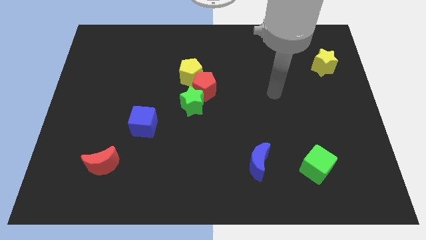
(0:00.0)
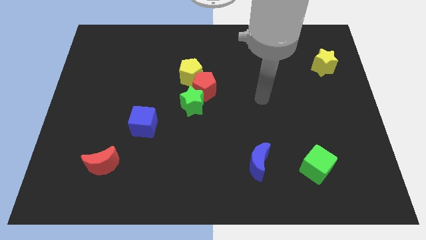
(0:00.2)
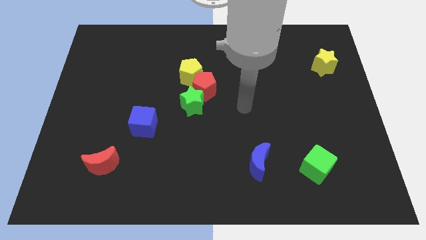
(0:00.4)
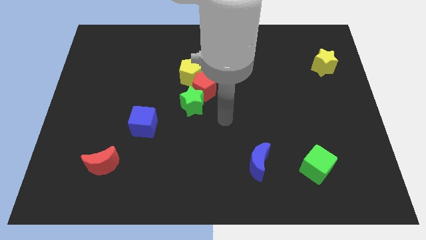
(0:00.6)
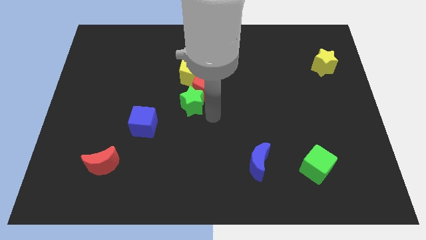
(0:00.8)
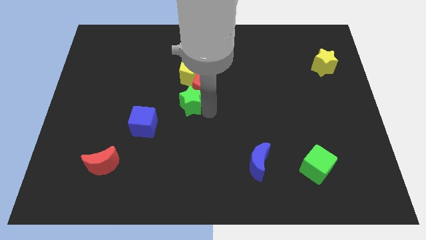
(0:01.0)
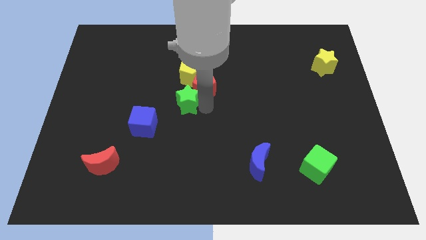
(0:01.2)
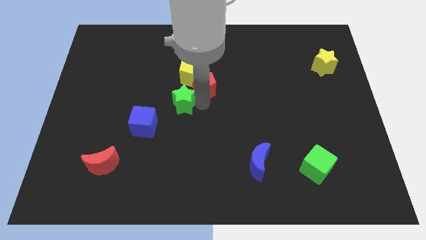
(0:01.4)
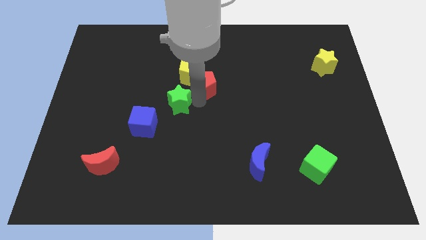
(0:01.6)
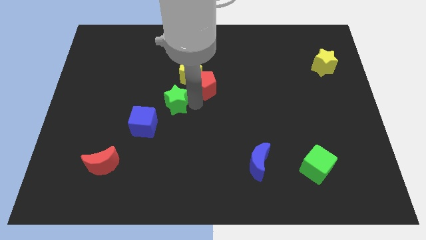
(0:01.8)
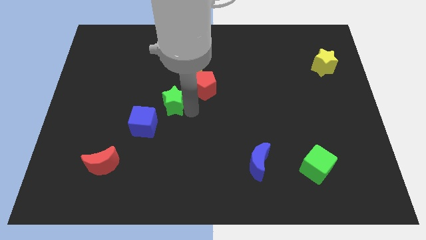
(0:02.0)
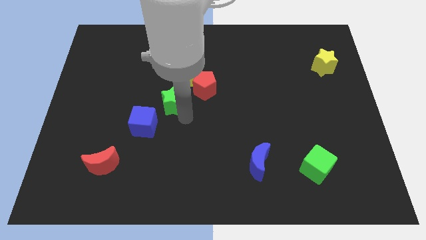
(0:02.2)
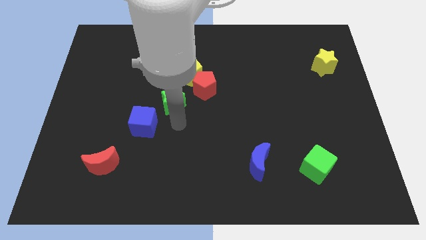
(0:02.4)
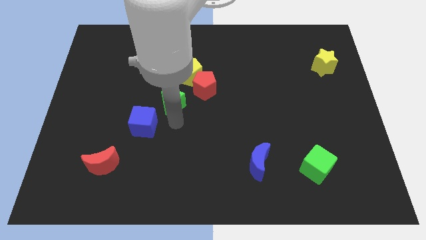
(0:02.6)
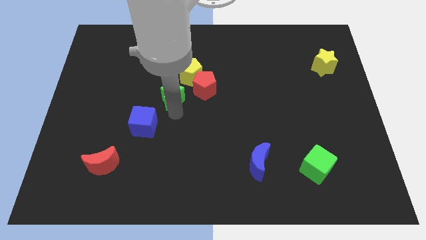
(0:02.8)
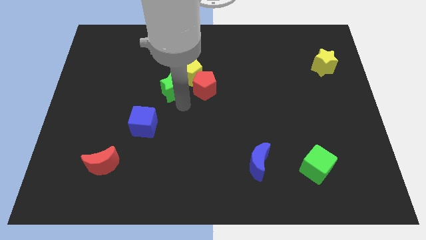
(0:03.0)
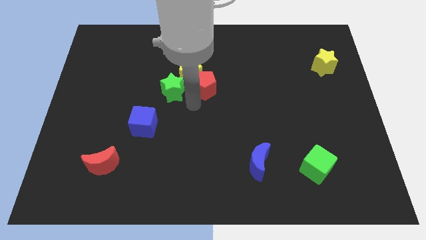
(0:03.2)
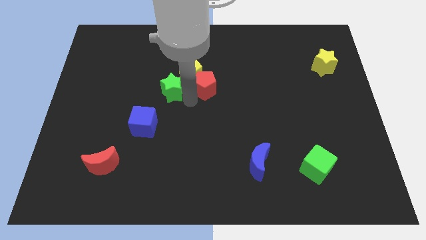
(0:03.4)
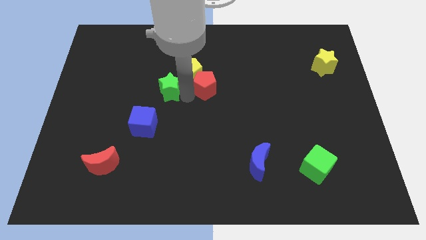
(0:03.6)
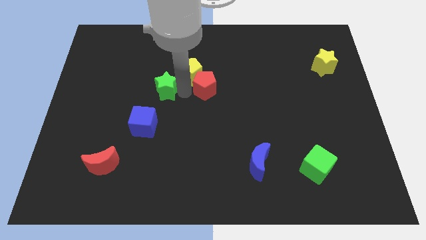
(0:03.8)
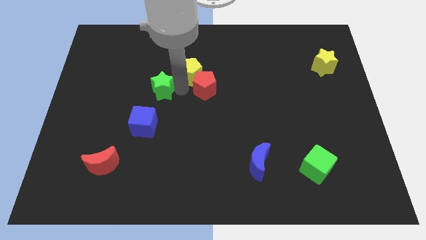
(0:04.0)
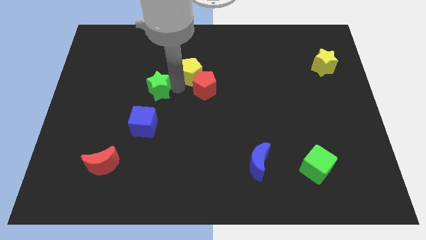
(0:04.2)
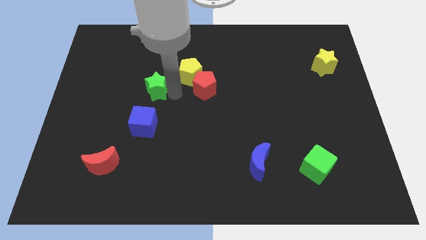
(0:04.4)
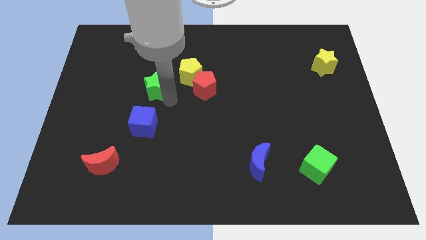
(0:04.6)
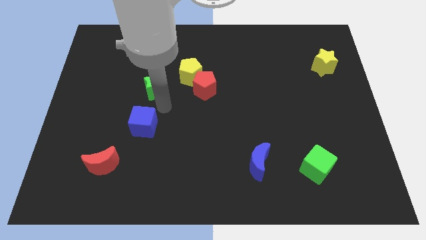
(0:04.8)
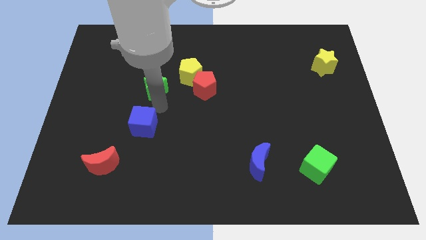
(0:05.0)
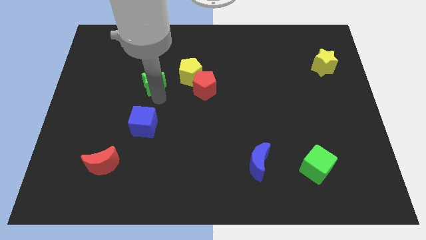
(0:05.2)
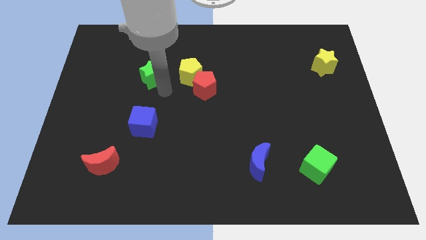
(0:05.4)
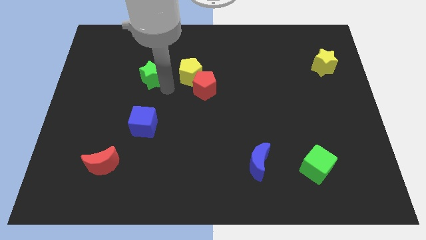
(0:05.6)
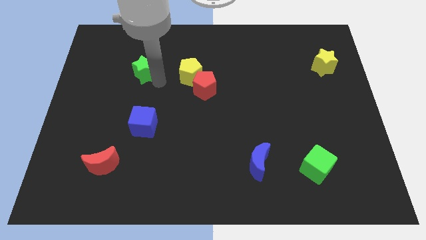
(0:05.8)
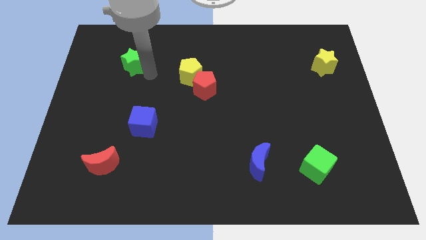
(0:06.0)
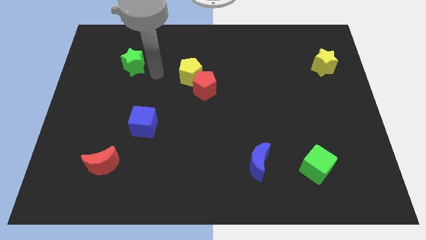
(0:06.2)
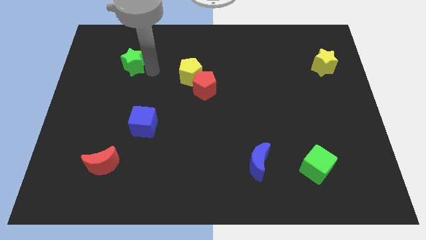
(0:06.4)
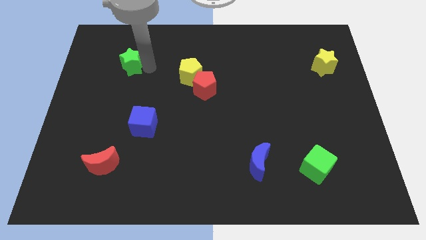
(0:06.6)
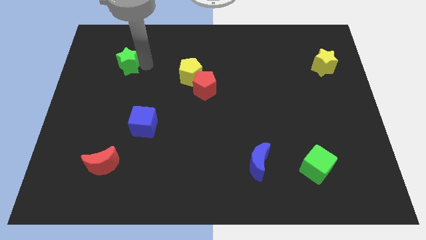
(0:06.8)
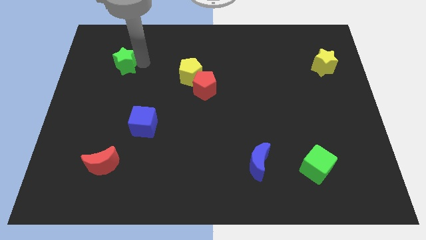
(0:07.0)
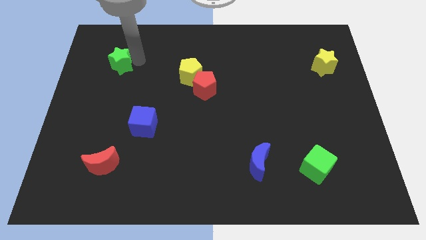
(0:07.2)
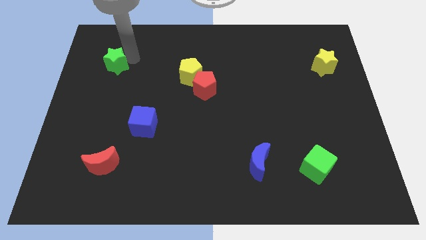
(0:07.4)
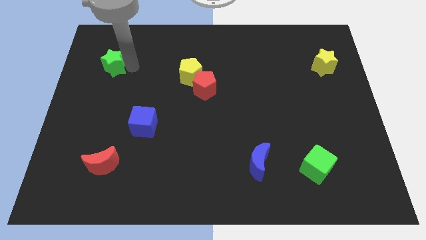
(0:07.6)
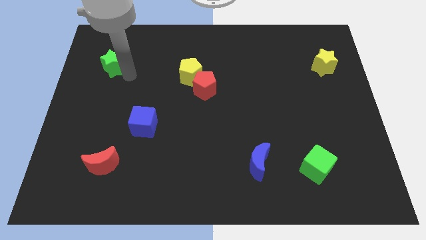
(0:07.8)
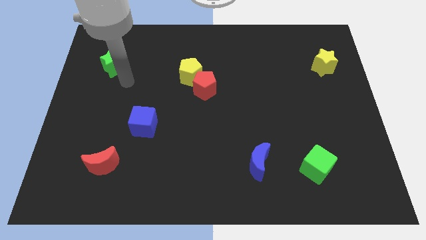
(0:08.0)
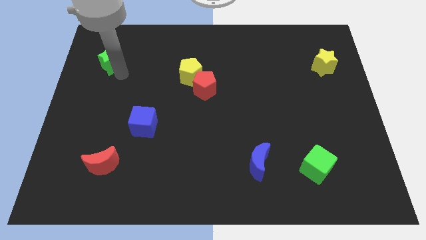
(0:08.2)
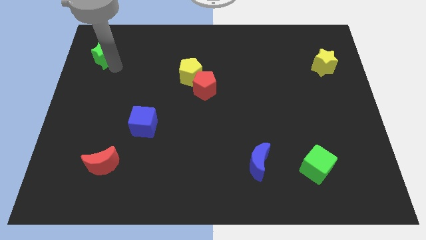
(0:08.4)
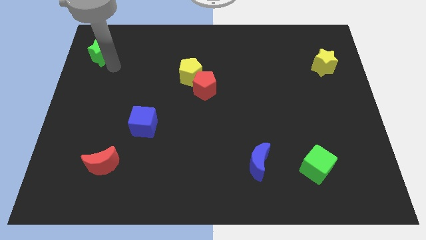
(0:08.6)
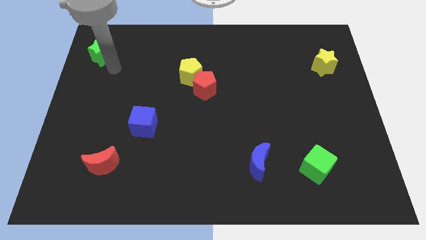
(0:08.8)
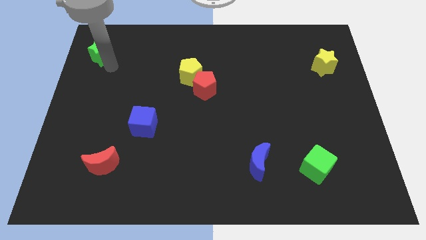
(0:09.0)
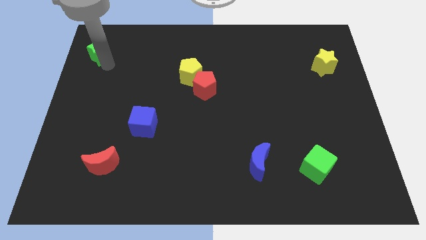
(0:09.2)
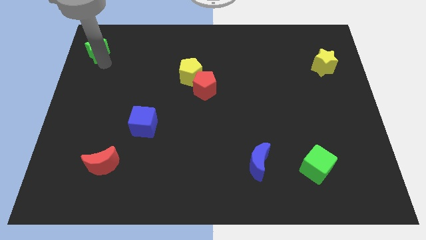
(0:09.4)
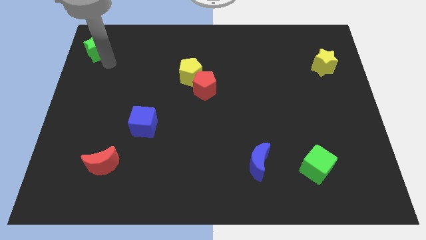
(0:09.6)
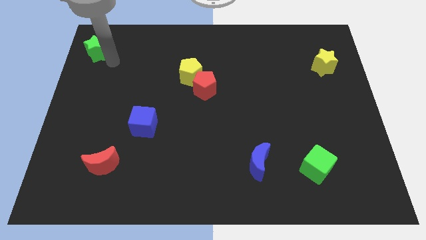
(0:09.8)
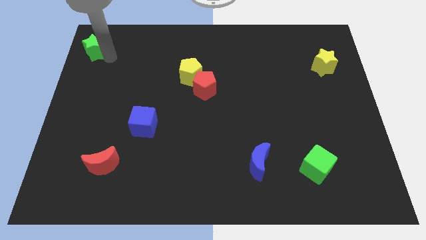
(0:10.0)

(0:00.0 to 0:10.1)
slide the green star to the top left

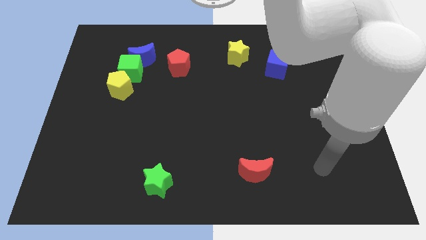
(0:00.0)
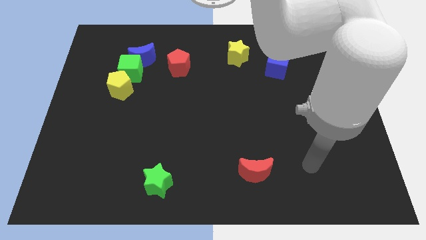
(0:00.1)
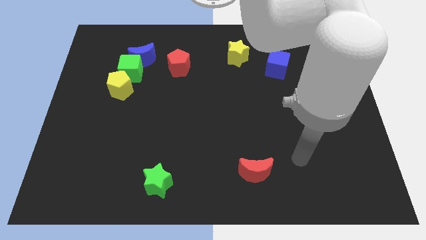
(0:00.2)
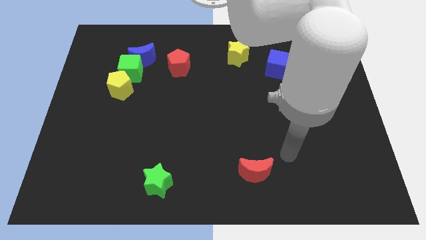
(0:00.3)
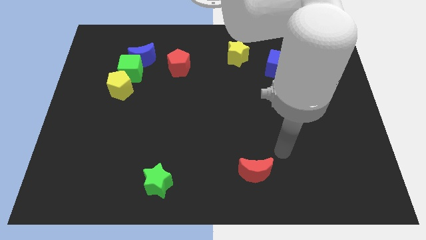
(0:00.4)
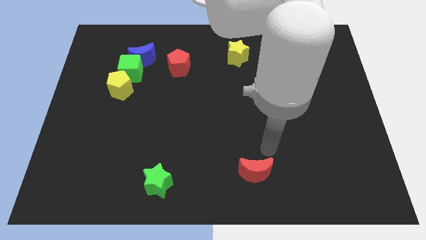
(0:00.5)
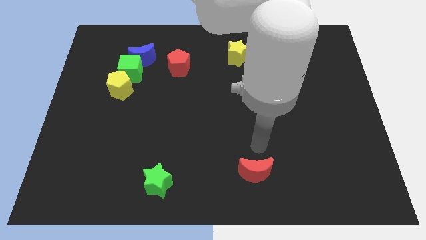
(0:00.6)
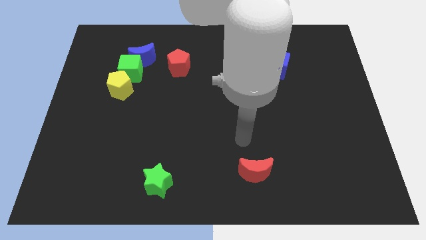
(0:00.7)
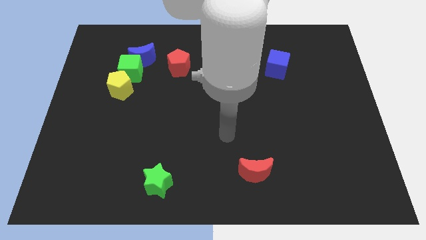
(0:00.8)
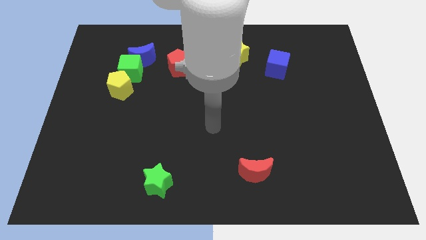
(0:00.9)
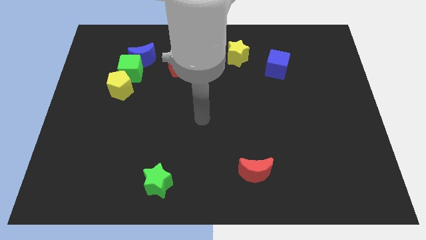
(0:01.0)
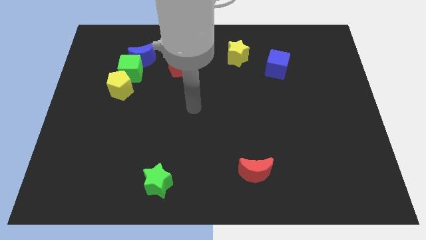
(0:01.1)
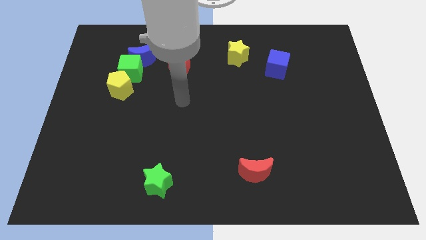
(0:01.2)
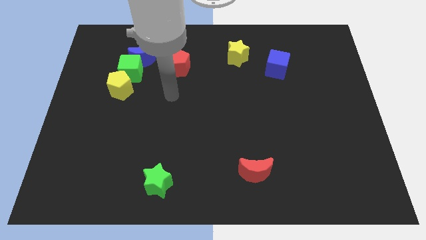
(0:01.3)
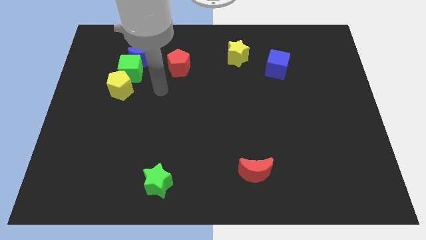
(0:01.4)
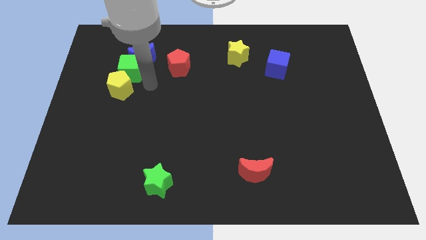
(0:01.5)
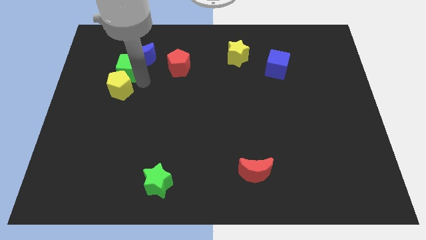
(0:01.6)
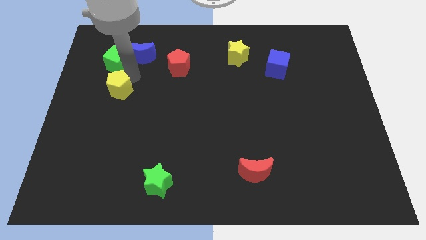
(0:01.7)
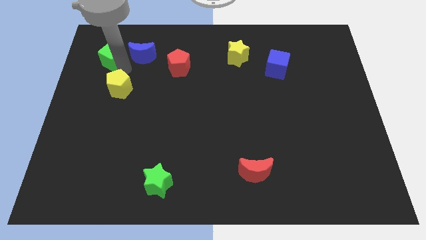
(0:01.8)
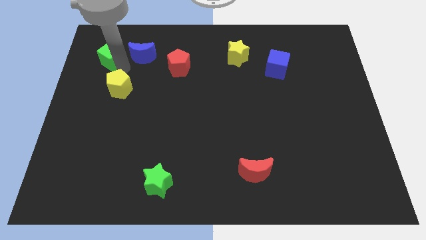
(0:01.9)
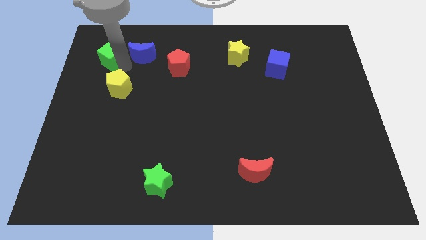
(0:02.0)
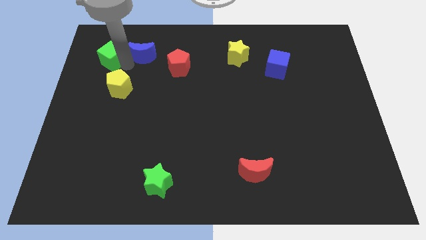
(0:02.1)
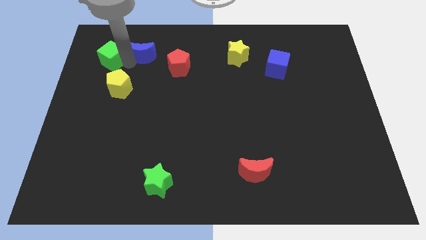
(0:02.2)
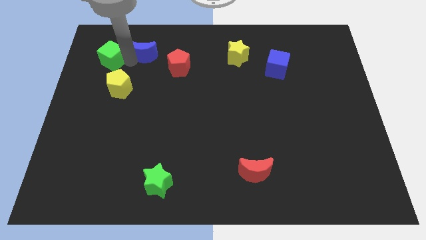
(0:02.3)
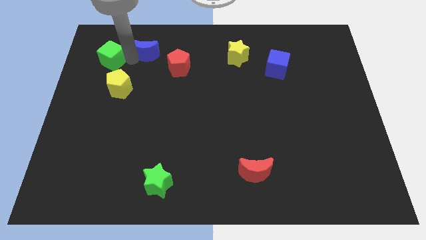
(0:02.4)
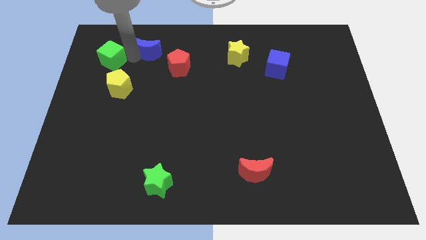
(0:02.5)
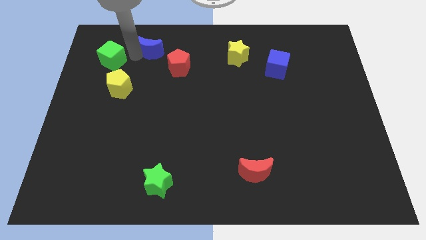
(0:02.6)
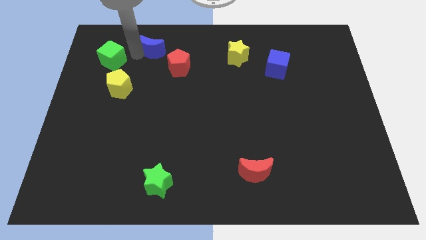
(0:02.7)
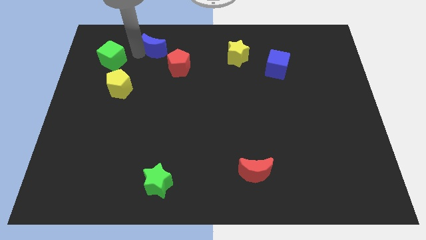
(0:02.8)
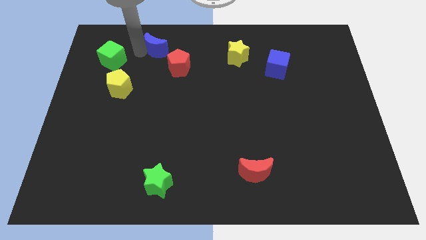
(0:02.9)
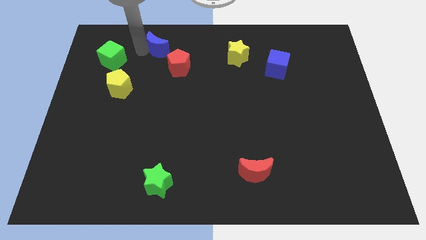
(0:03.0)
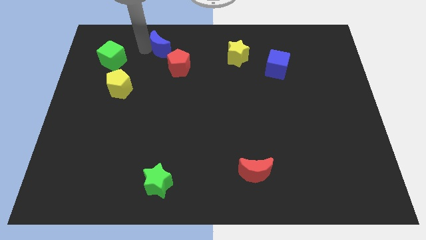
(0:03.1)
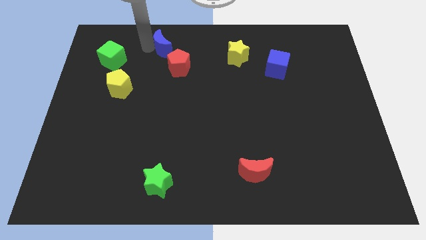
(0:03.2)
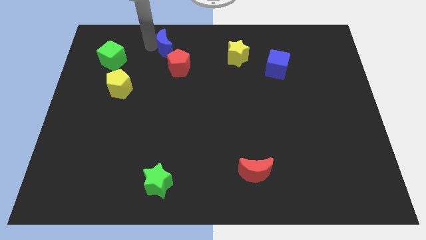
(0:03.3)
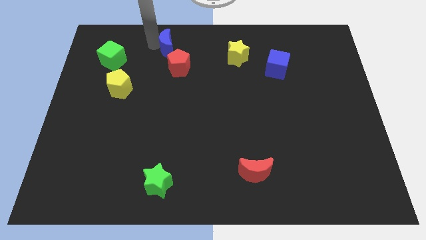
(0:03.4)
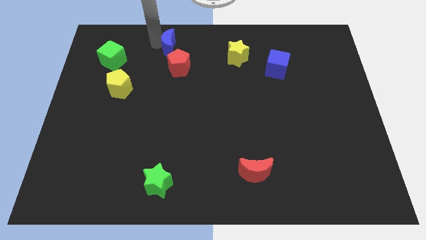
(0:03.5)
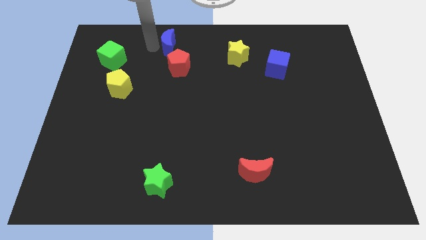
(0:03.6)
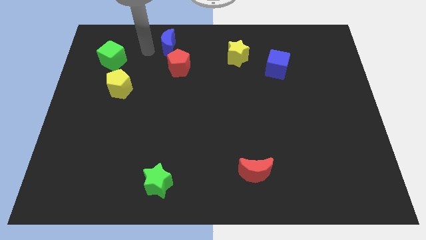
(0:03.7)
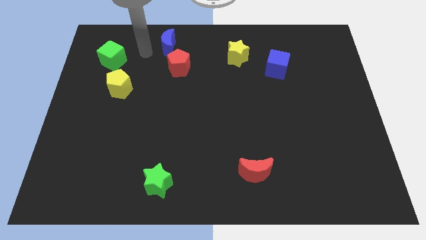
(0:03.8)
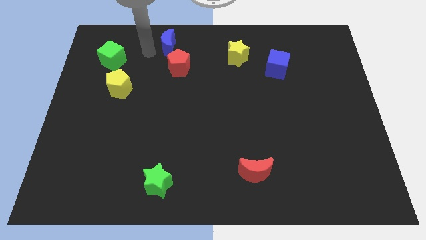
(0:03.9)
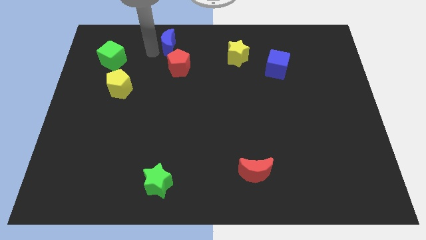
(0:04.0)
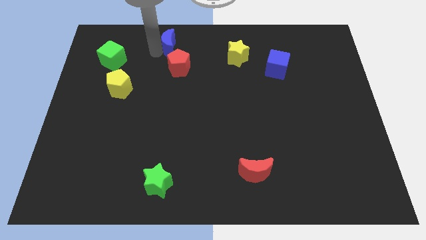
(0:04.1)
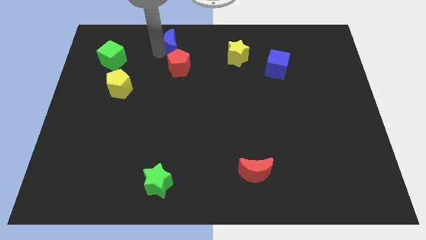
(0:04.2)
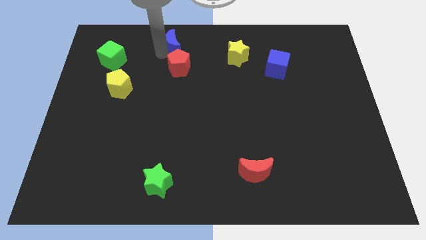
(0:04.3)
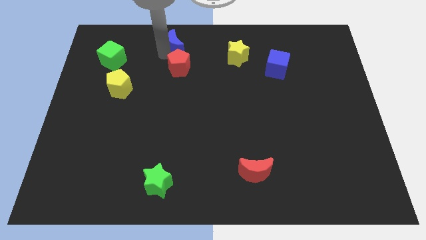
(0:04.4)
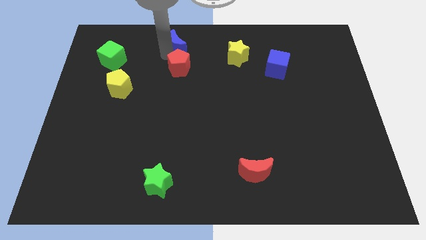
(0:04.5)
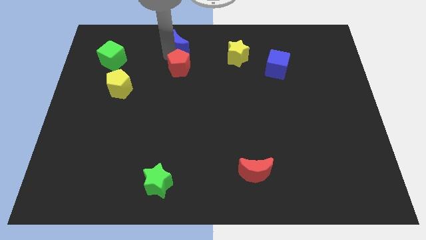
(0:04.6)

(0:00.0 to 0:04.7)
push the blue moon to the top side
